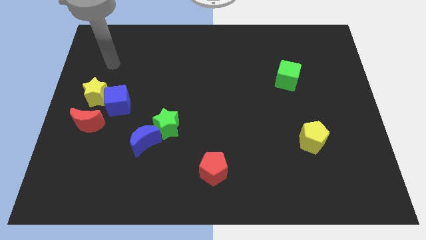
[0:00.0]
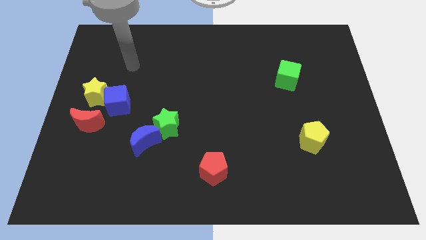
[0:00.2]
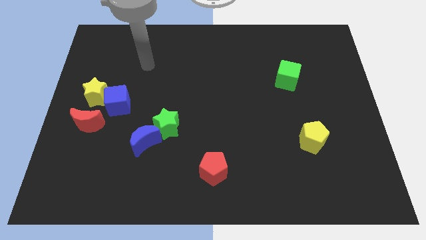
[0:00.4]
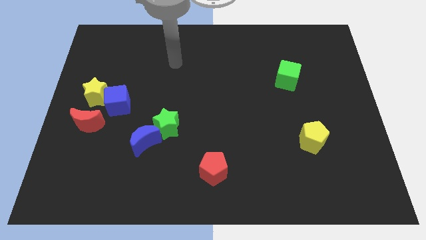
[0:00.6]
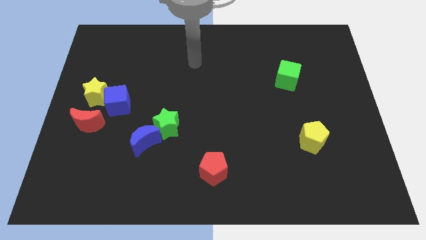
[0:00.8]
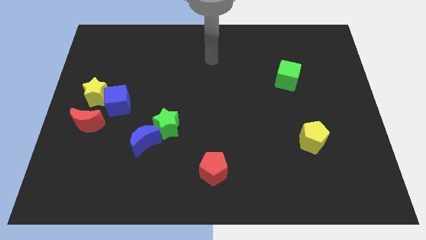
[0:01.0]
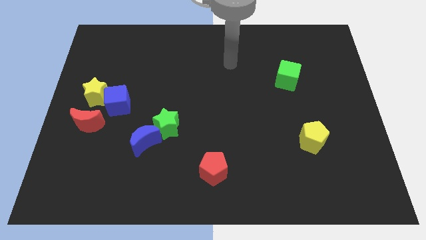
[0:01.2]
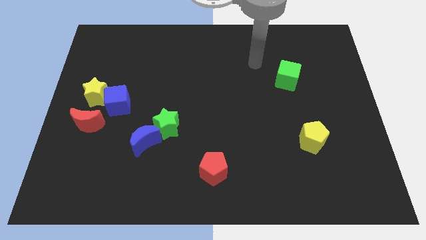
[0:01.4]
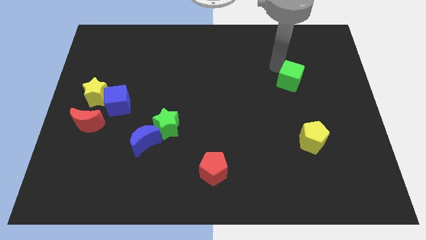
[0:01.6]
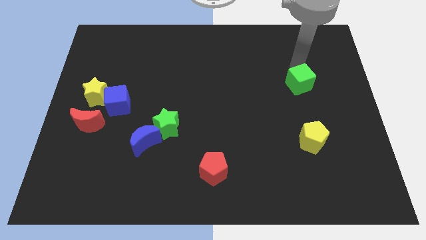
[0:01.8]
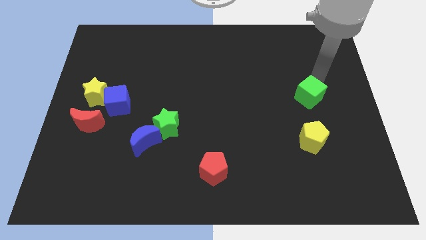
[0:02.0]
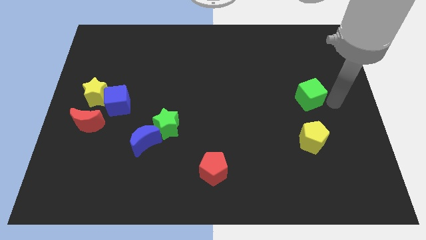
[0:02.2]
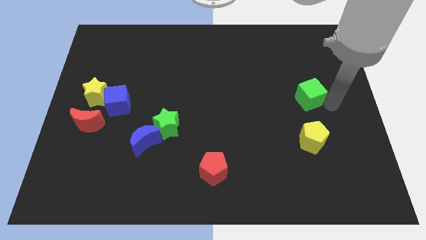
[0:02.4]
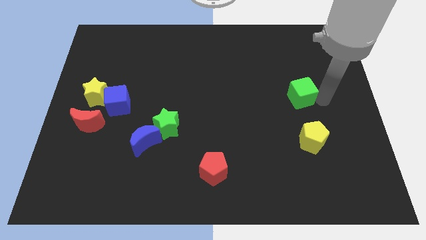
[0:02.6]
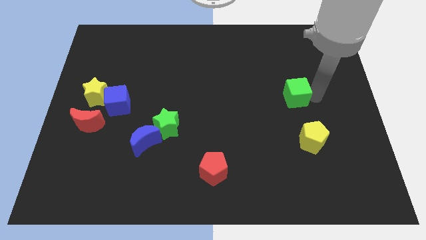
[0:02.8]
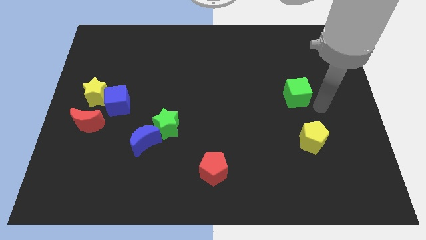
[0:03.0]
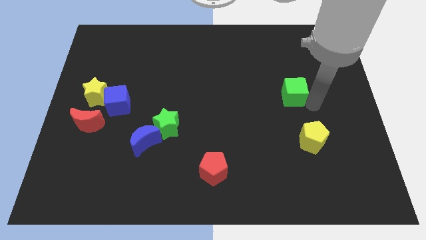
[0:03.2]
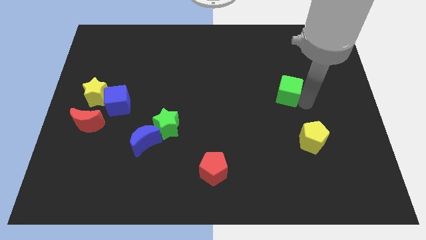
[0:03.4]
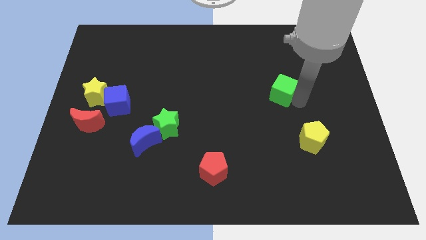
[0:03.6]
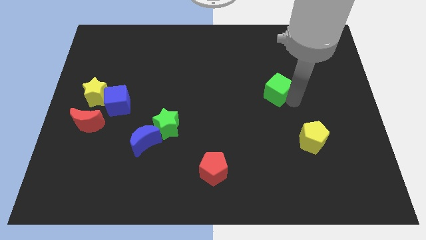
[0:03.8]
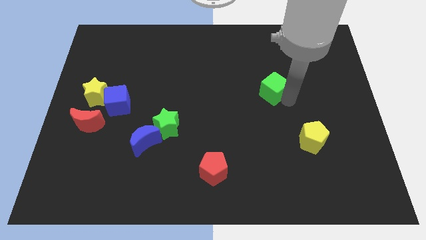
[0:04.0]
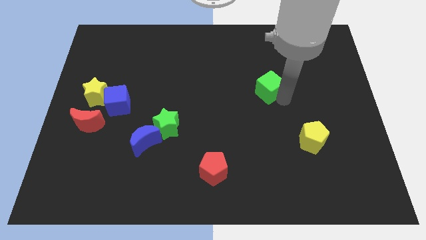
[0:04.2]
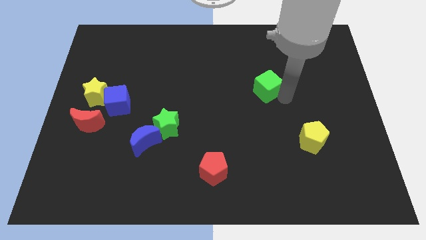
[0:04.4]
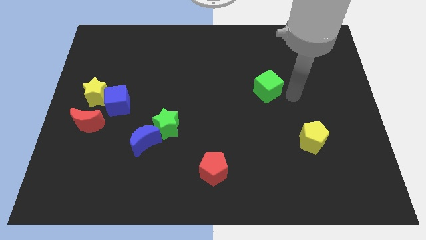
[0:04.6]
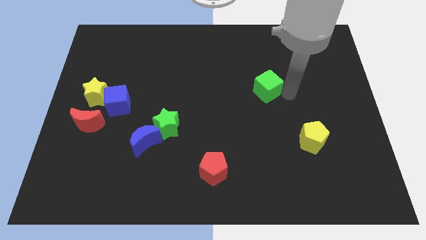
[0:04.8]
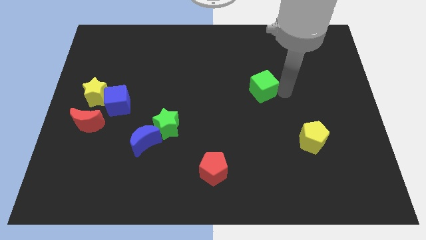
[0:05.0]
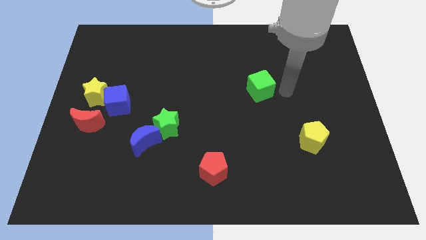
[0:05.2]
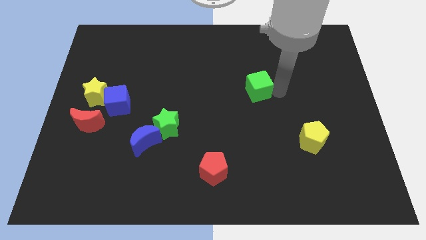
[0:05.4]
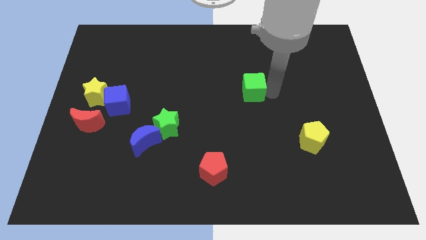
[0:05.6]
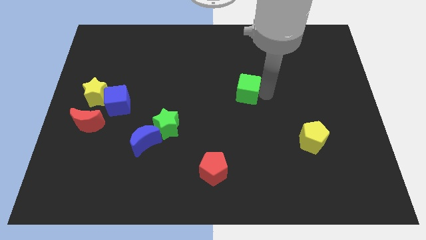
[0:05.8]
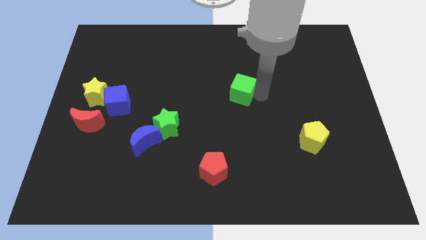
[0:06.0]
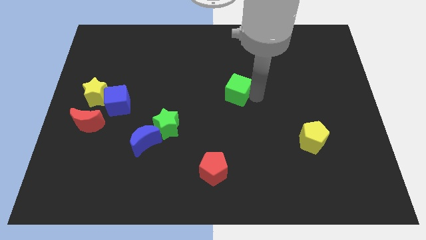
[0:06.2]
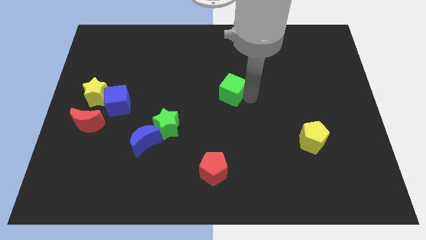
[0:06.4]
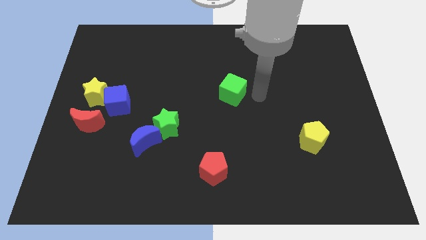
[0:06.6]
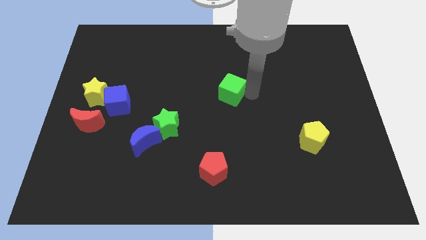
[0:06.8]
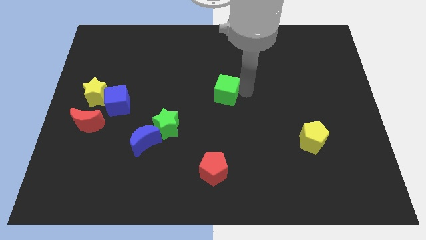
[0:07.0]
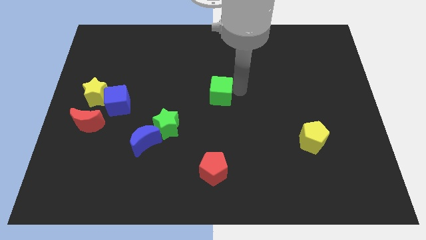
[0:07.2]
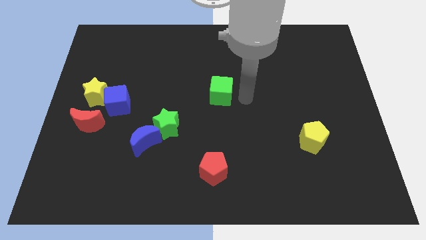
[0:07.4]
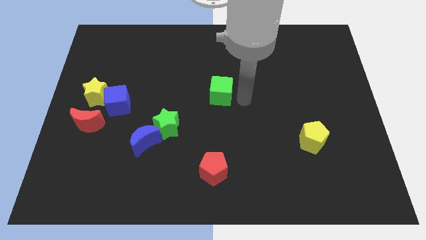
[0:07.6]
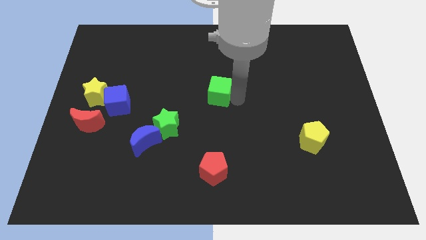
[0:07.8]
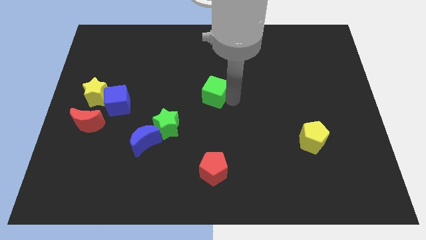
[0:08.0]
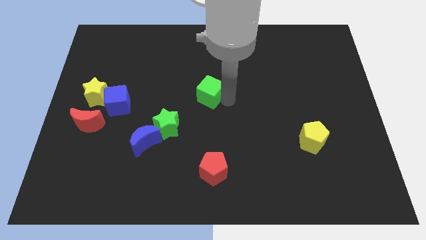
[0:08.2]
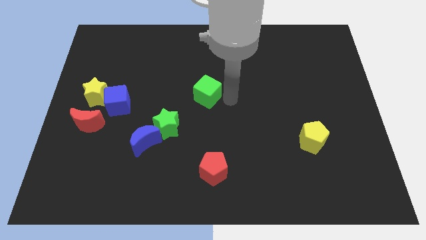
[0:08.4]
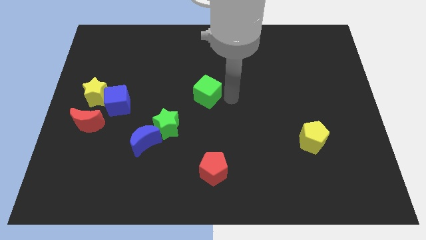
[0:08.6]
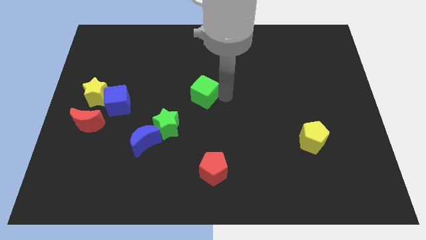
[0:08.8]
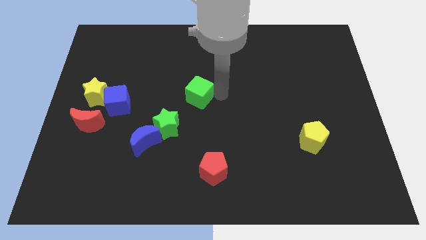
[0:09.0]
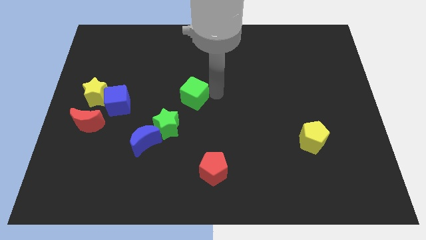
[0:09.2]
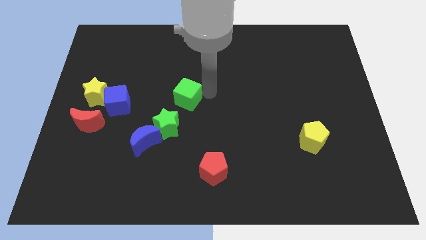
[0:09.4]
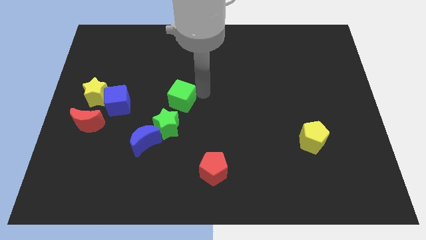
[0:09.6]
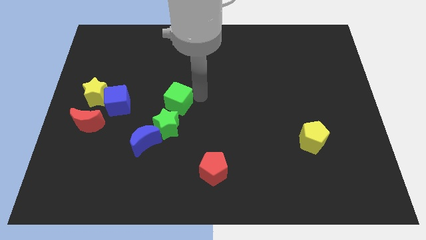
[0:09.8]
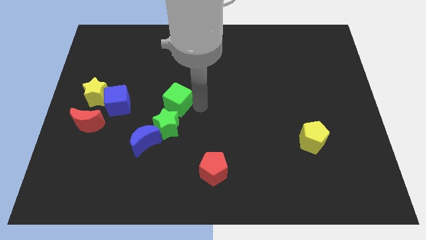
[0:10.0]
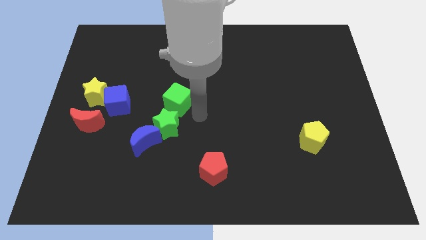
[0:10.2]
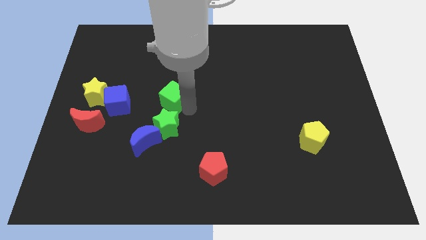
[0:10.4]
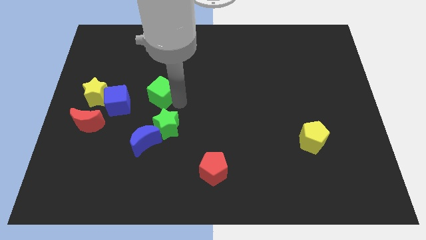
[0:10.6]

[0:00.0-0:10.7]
slide the green cube to the right side of the yellow star

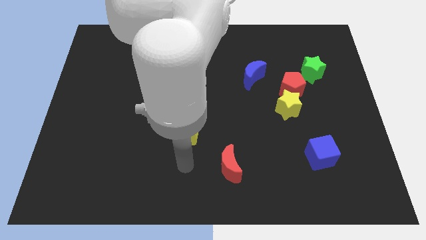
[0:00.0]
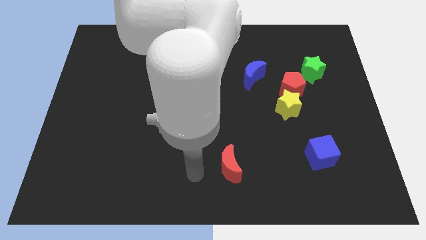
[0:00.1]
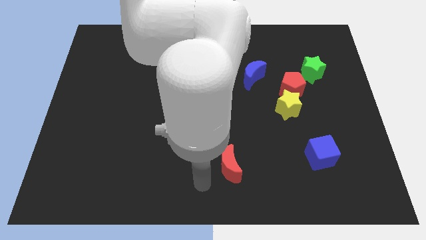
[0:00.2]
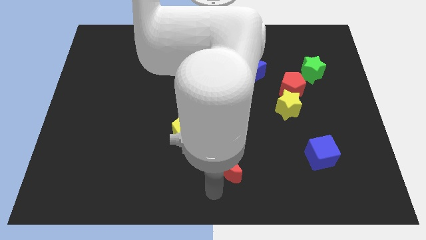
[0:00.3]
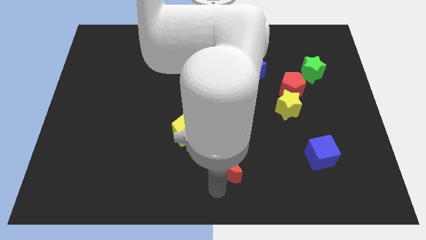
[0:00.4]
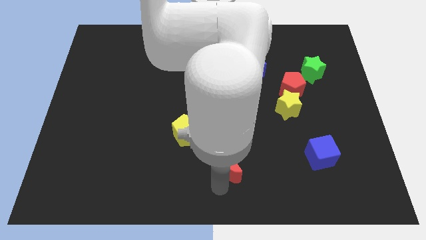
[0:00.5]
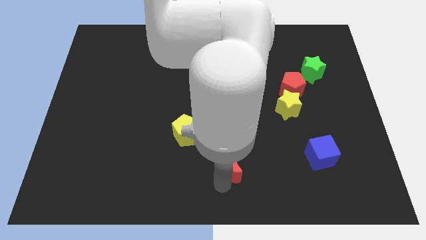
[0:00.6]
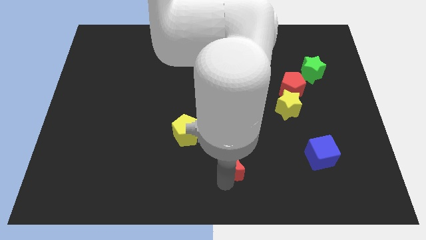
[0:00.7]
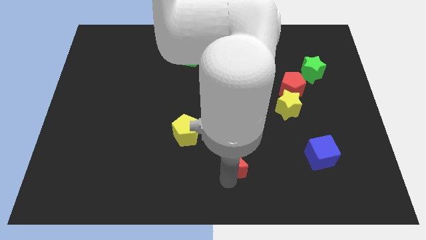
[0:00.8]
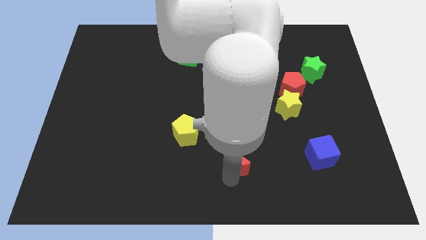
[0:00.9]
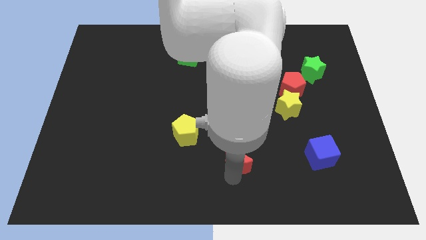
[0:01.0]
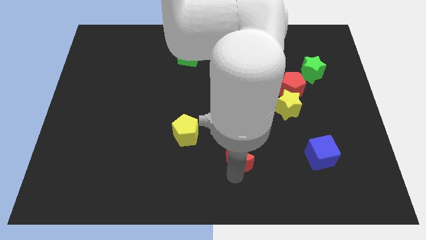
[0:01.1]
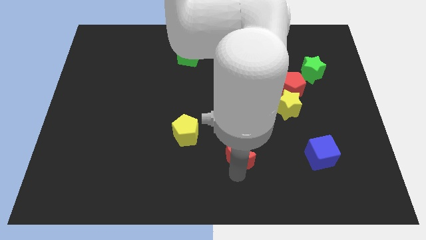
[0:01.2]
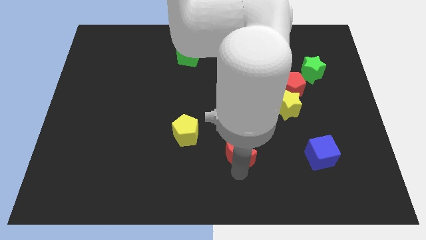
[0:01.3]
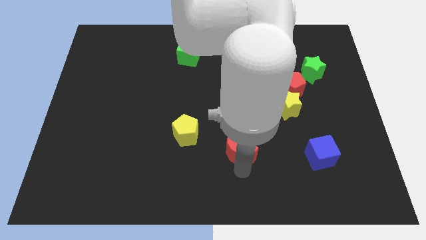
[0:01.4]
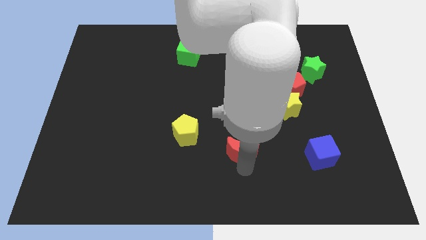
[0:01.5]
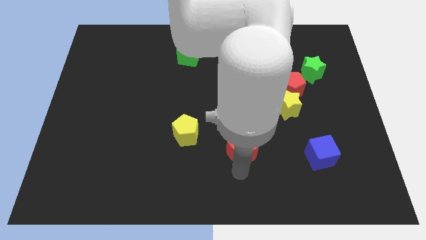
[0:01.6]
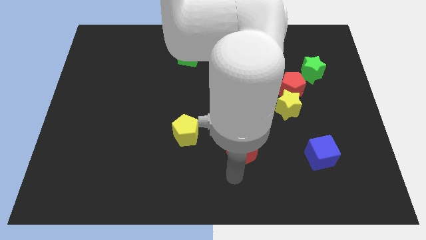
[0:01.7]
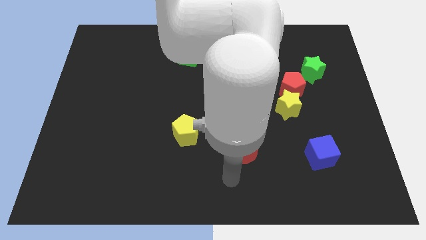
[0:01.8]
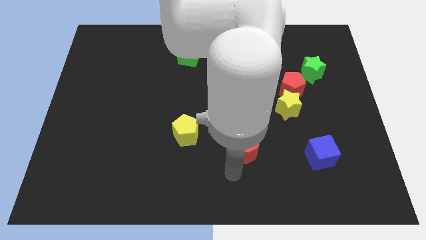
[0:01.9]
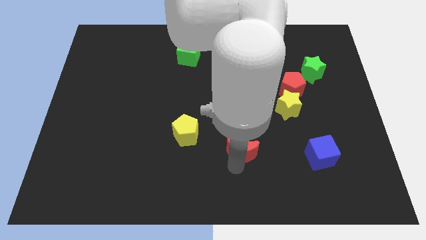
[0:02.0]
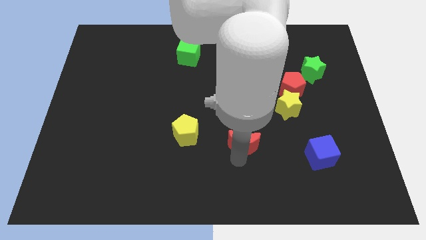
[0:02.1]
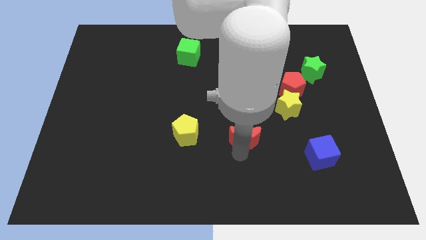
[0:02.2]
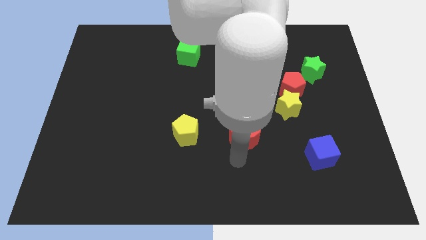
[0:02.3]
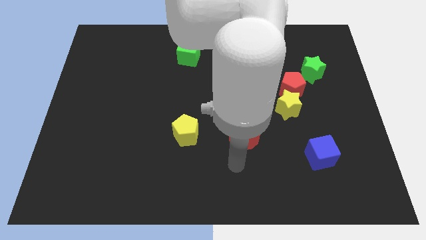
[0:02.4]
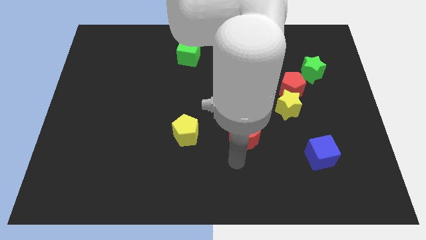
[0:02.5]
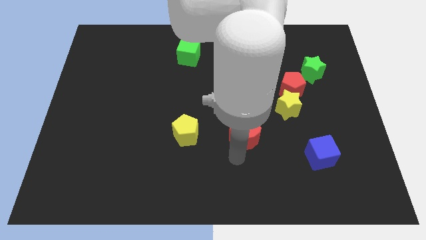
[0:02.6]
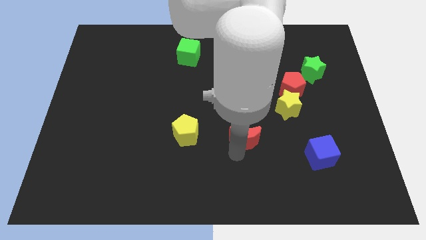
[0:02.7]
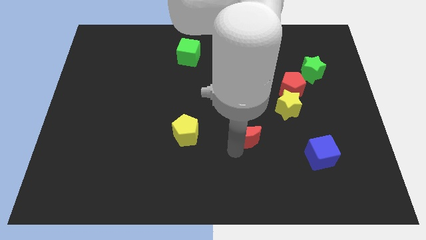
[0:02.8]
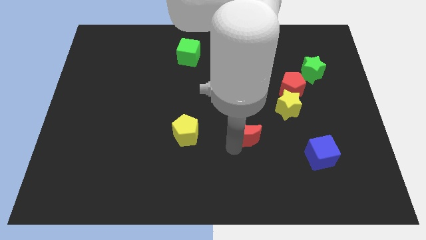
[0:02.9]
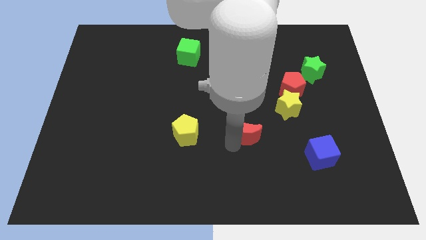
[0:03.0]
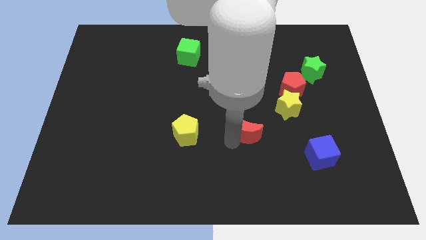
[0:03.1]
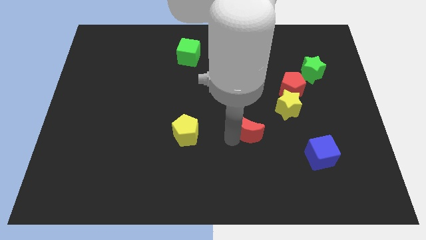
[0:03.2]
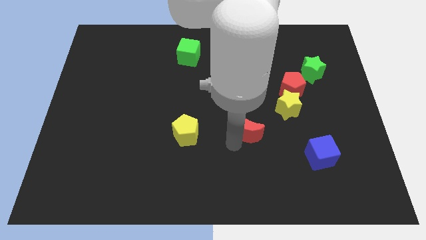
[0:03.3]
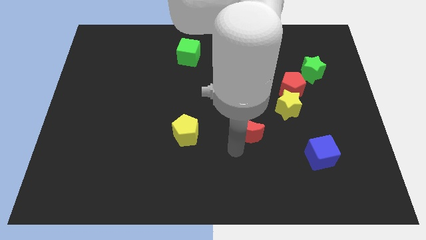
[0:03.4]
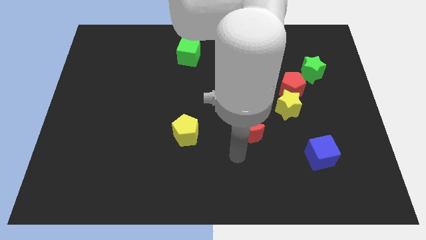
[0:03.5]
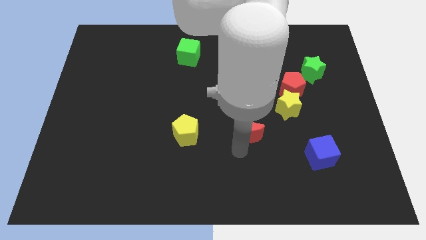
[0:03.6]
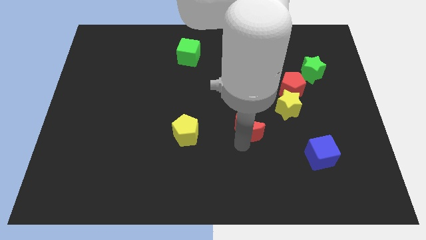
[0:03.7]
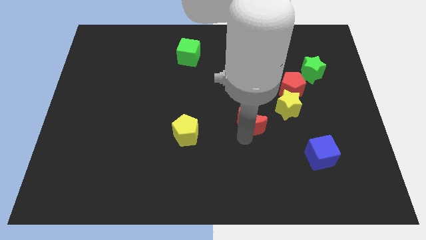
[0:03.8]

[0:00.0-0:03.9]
push the red moon to the bottom side of the blue moon
